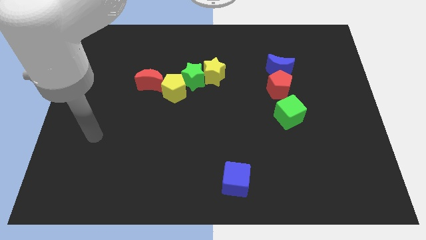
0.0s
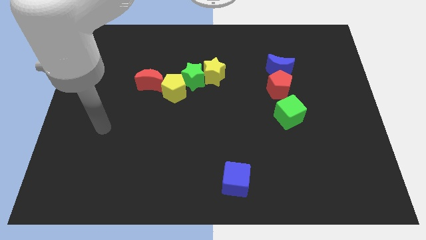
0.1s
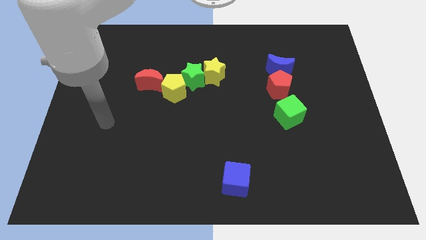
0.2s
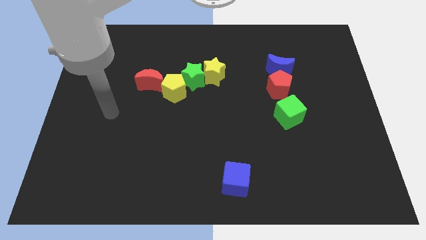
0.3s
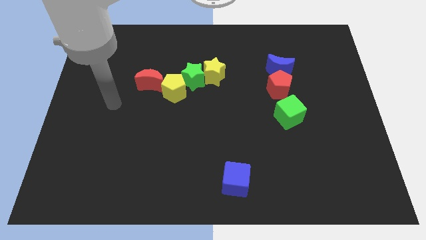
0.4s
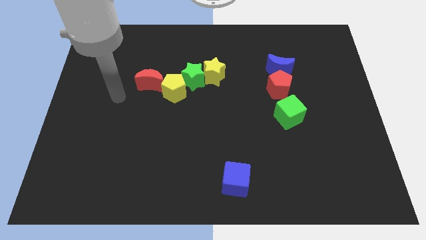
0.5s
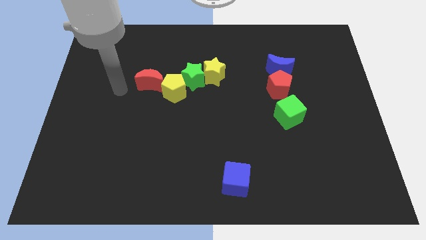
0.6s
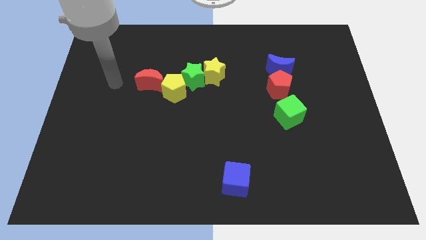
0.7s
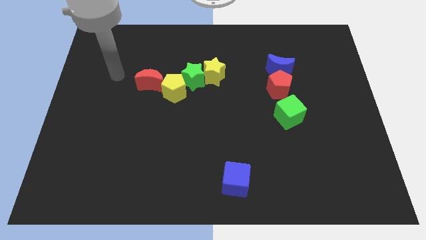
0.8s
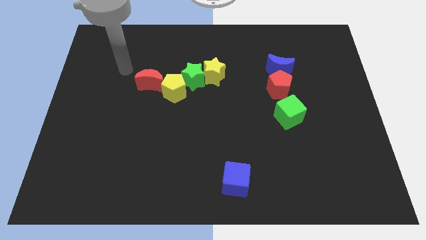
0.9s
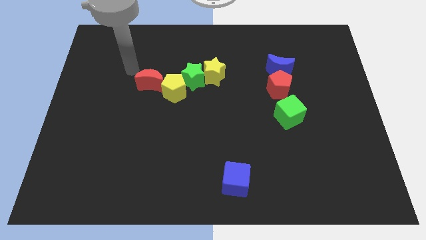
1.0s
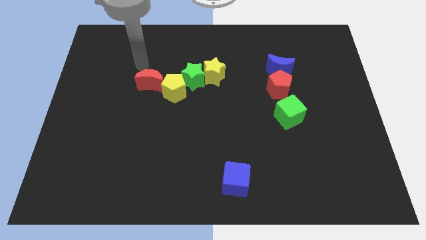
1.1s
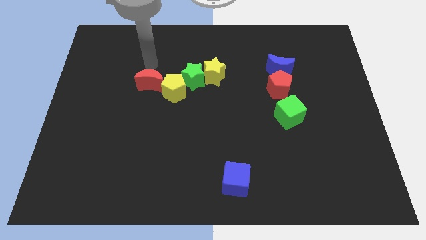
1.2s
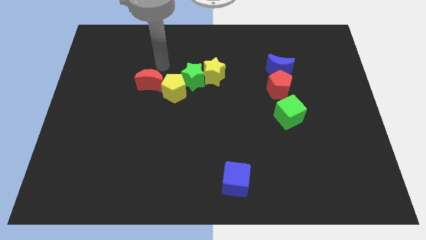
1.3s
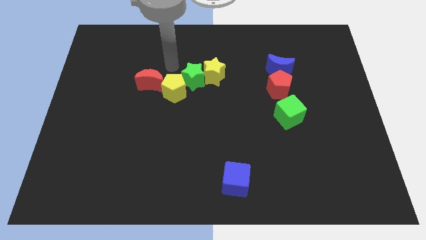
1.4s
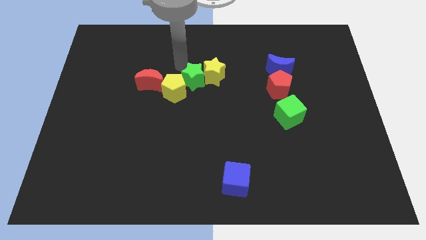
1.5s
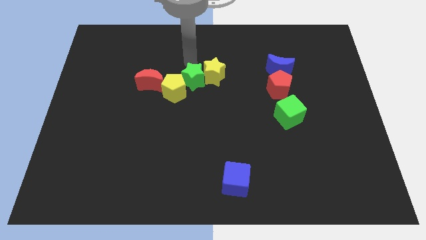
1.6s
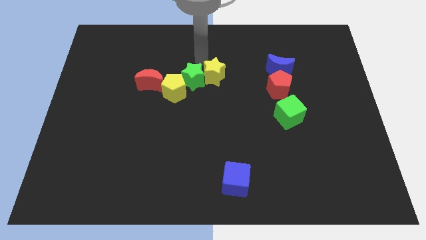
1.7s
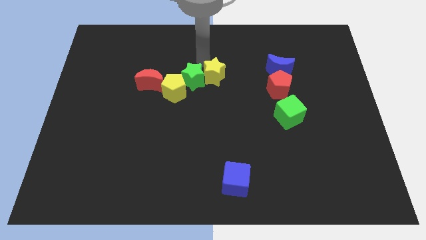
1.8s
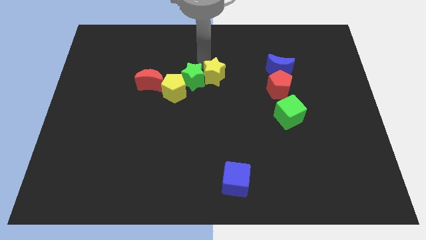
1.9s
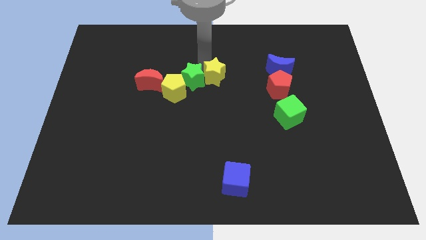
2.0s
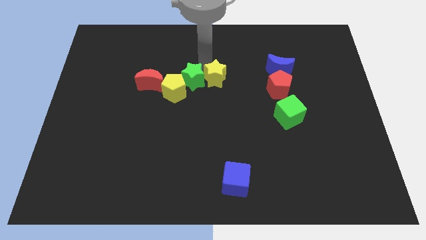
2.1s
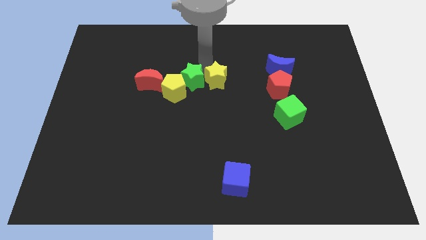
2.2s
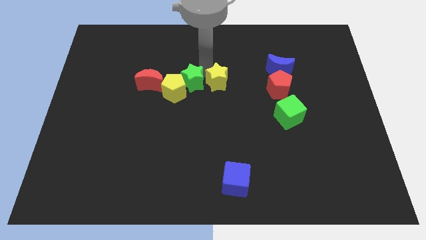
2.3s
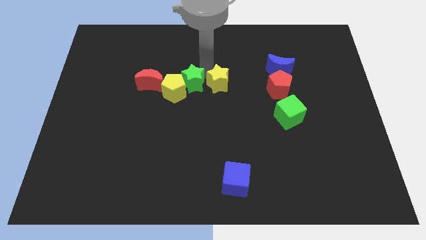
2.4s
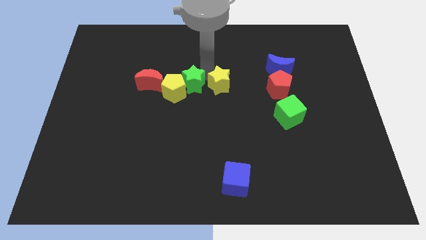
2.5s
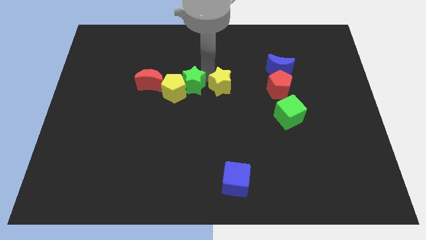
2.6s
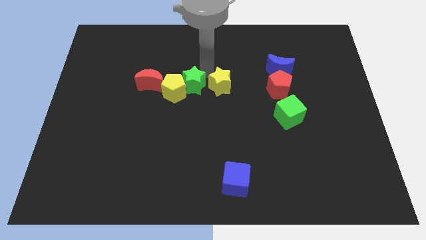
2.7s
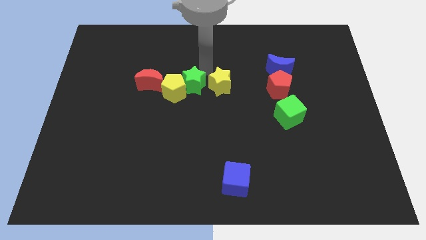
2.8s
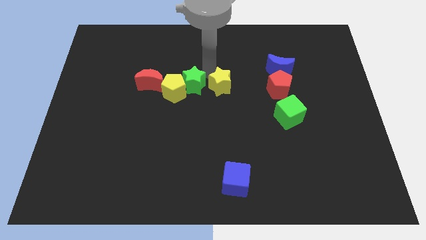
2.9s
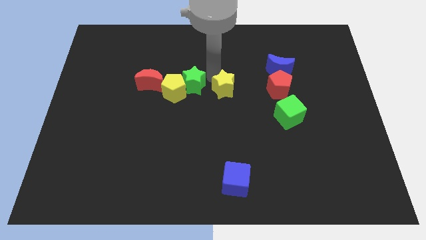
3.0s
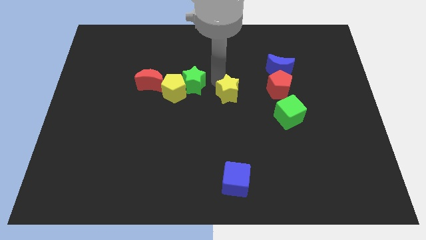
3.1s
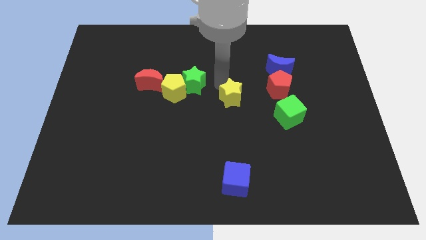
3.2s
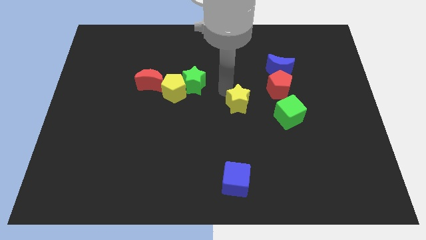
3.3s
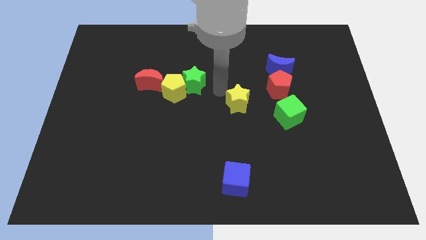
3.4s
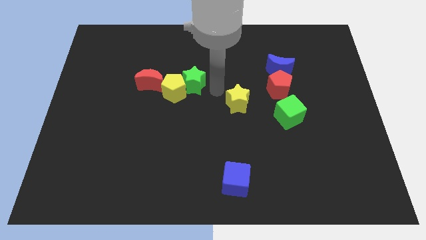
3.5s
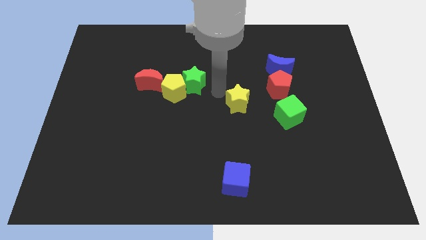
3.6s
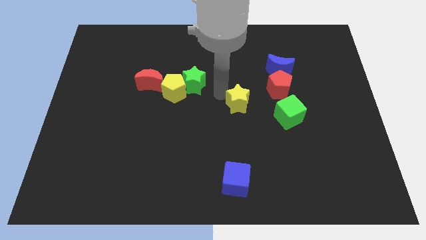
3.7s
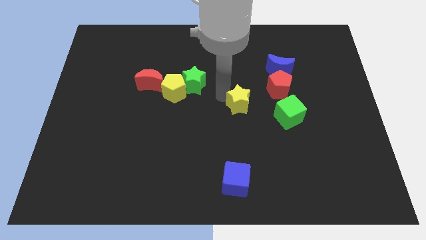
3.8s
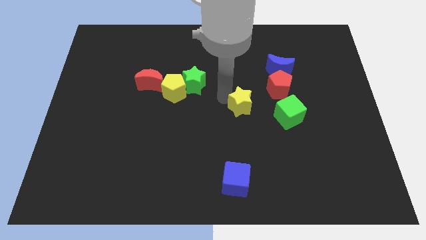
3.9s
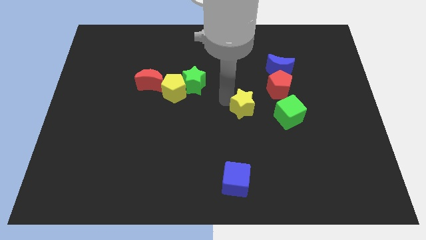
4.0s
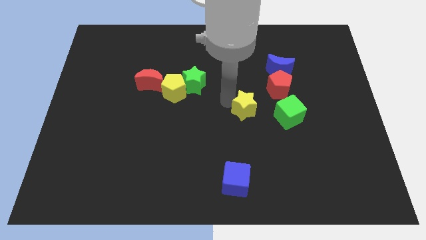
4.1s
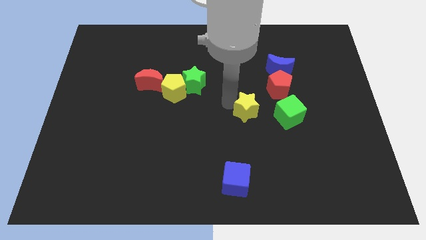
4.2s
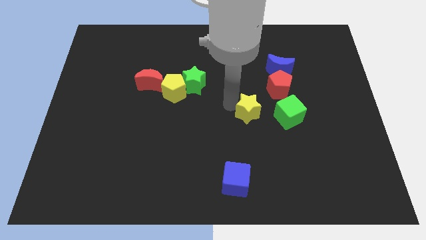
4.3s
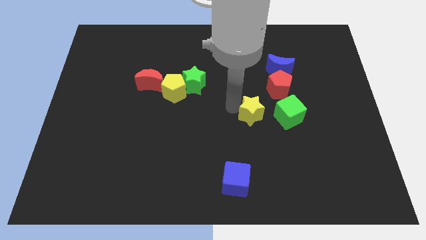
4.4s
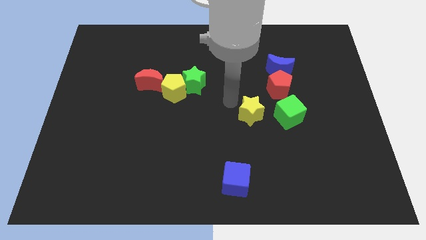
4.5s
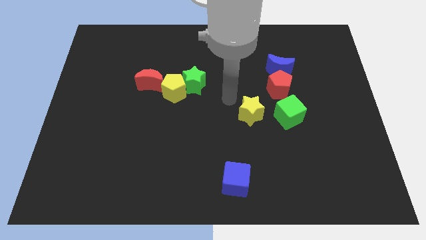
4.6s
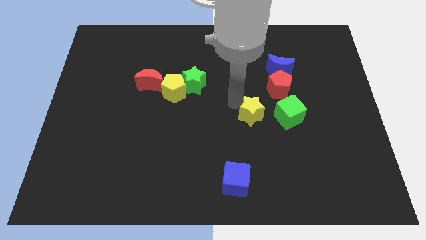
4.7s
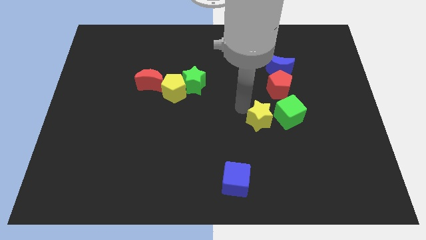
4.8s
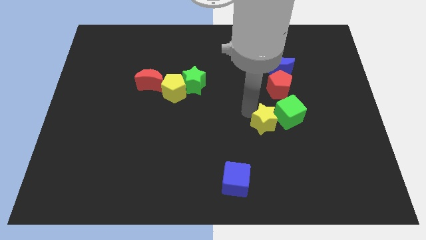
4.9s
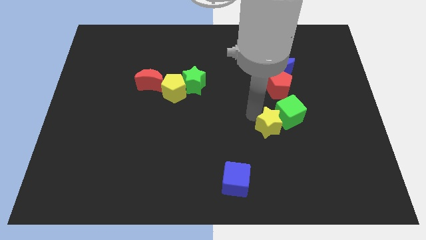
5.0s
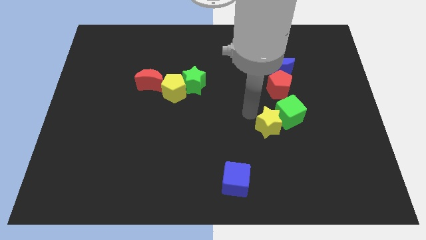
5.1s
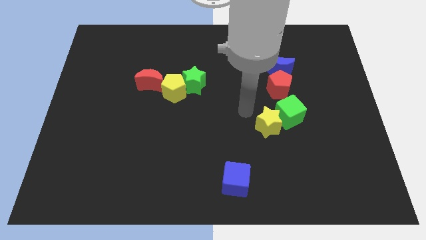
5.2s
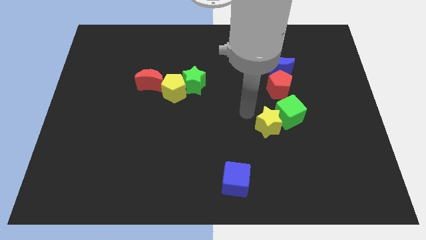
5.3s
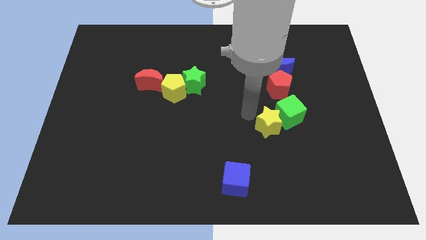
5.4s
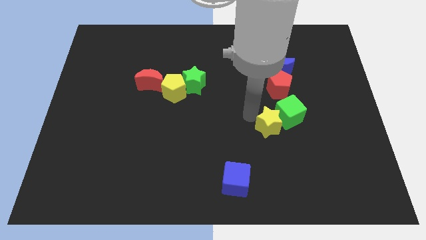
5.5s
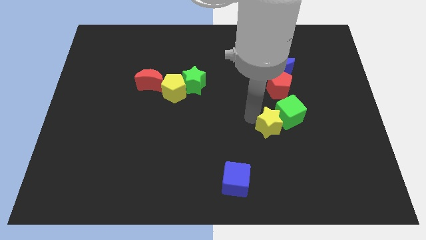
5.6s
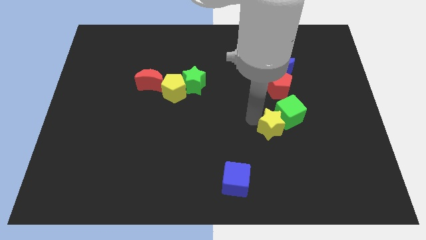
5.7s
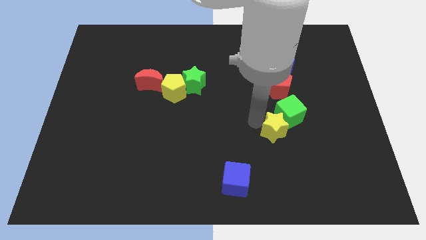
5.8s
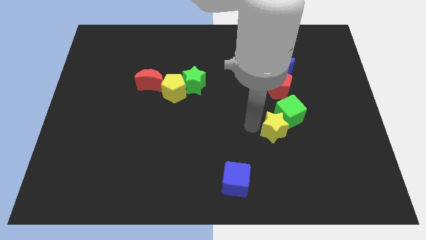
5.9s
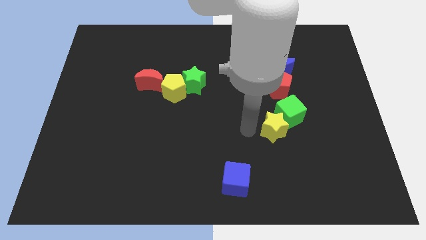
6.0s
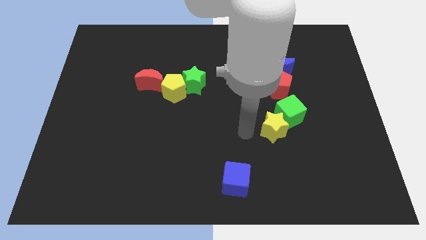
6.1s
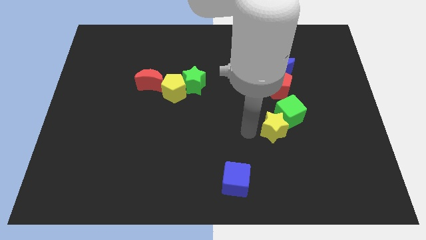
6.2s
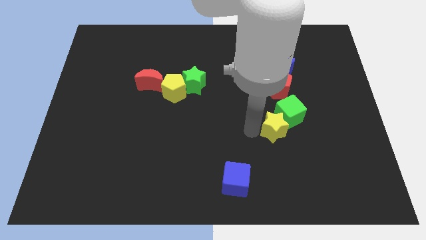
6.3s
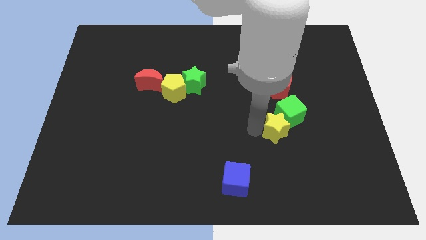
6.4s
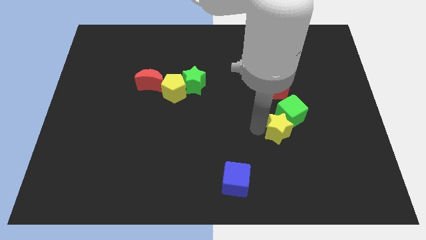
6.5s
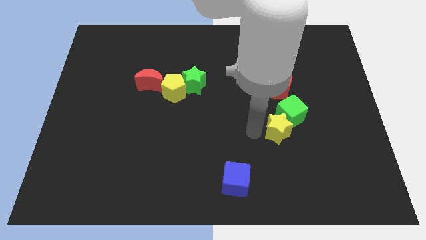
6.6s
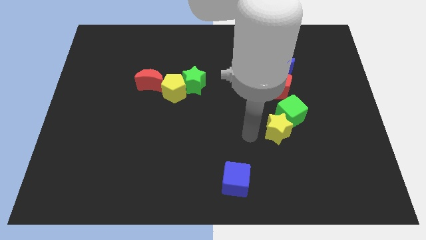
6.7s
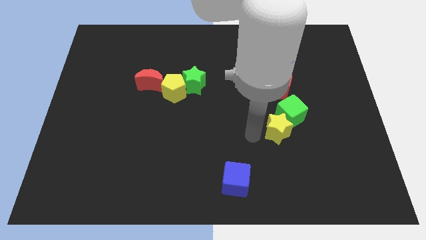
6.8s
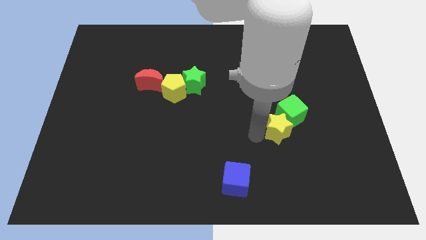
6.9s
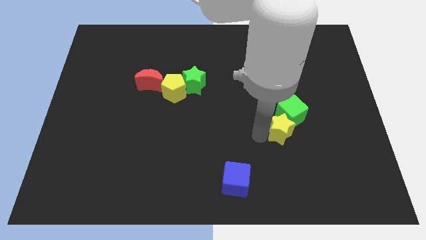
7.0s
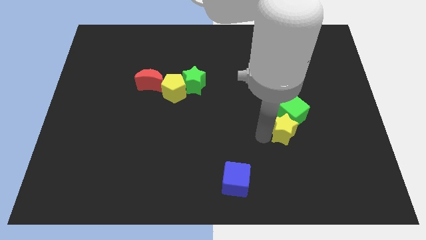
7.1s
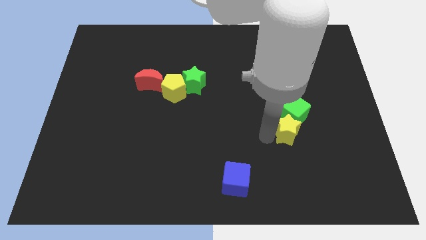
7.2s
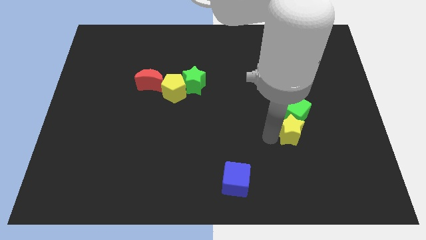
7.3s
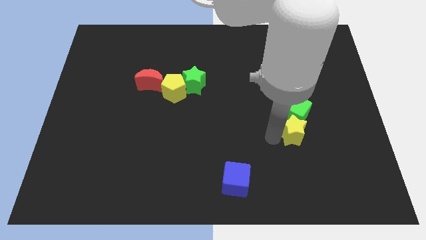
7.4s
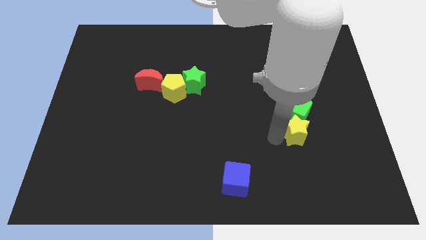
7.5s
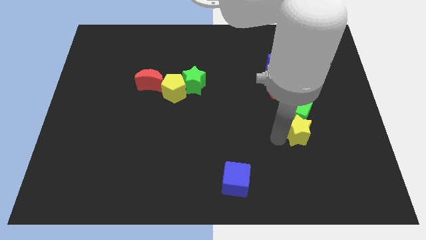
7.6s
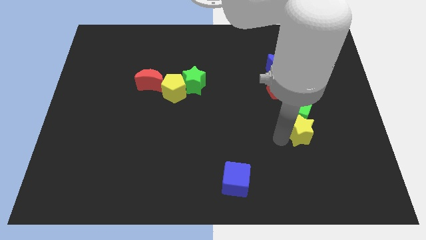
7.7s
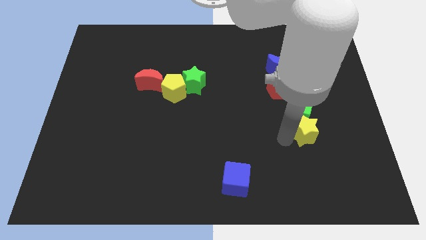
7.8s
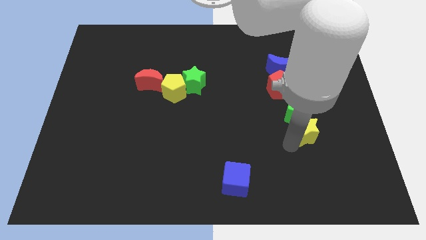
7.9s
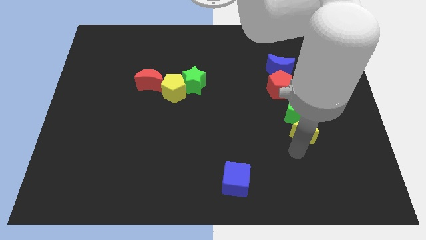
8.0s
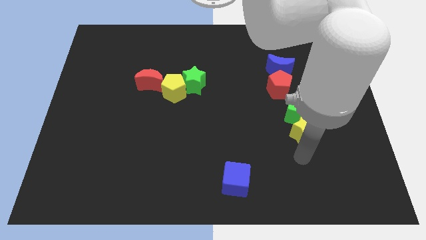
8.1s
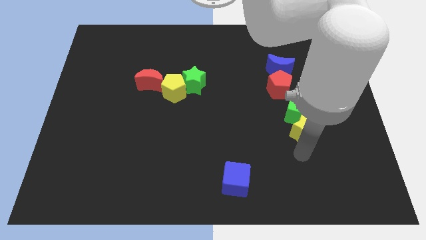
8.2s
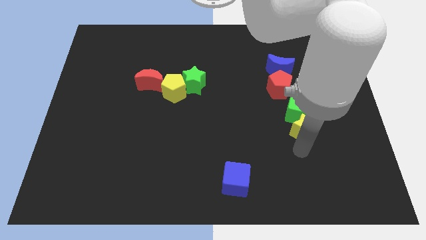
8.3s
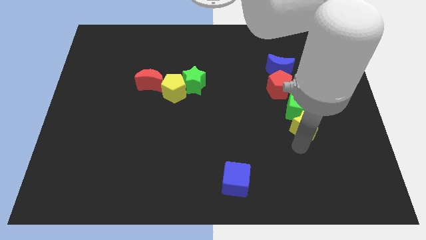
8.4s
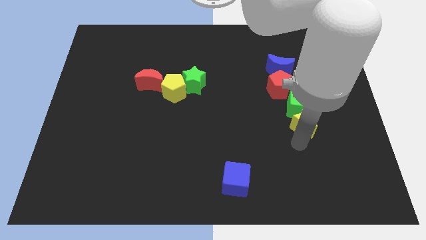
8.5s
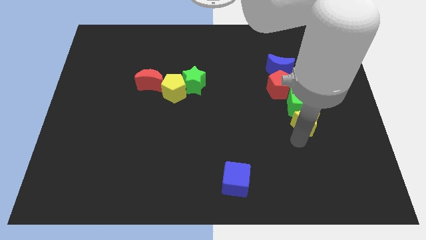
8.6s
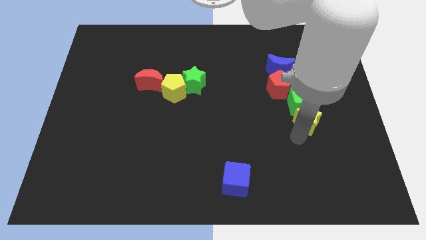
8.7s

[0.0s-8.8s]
put the yellow star to the bottom right side of the red pentagon
